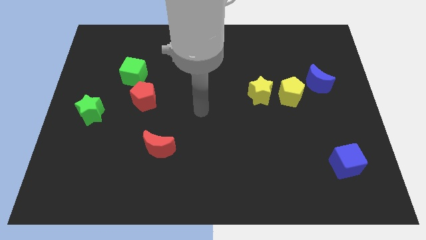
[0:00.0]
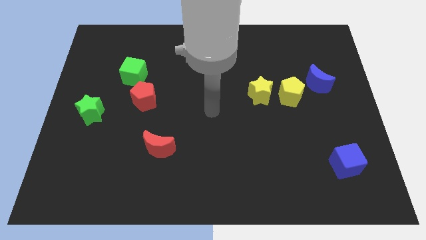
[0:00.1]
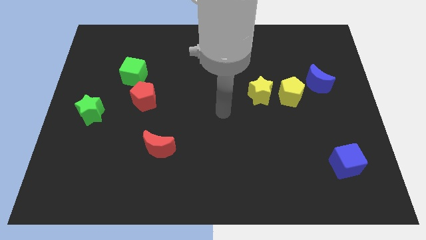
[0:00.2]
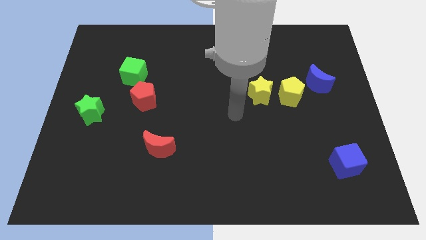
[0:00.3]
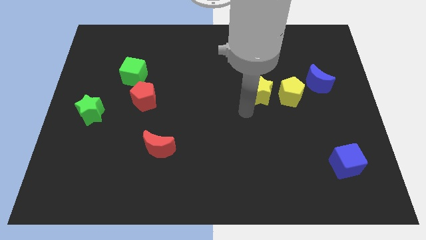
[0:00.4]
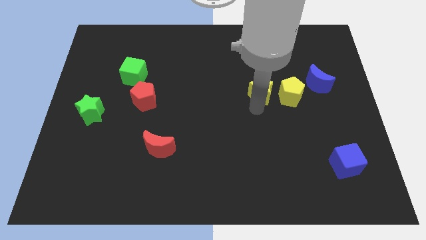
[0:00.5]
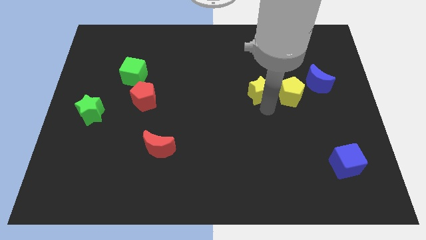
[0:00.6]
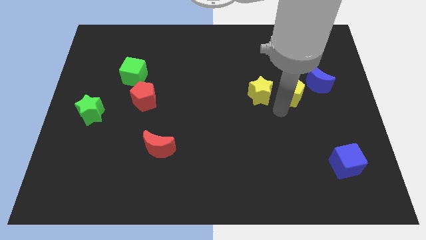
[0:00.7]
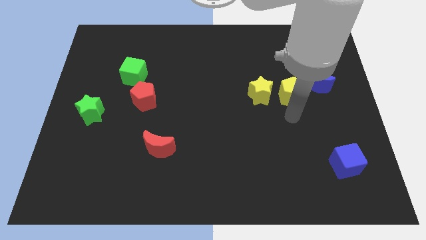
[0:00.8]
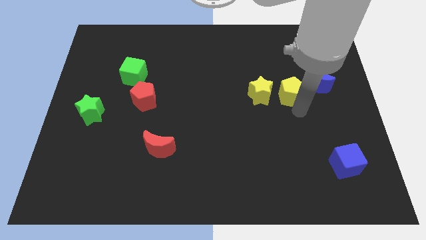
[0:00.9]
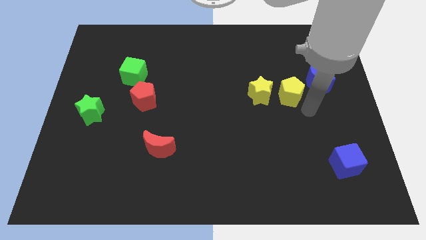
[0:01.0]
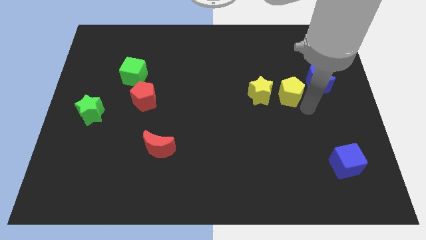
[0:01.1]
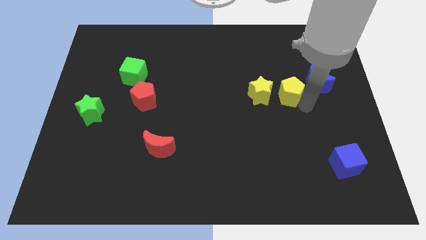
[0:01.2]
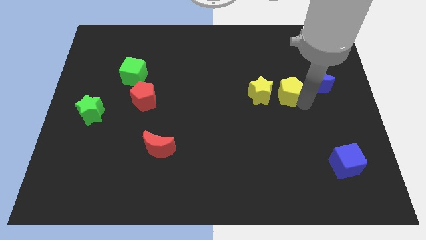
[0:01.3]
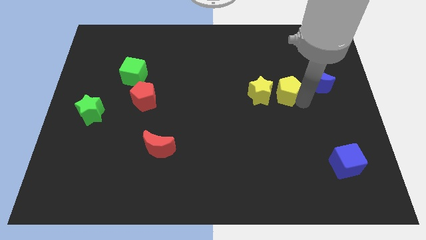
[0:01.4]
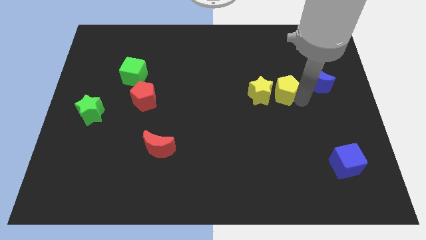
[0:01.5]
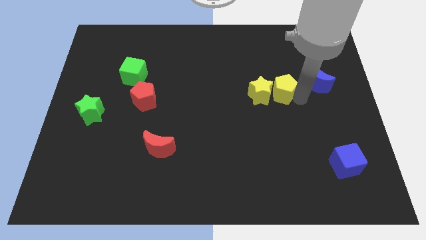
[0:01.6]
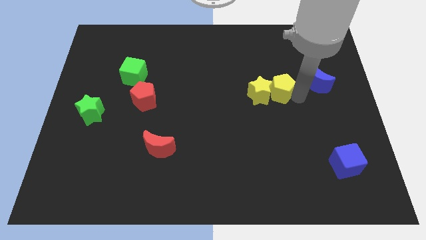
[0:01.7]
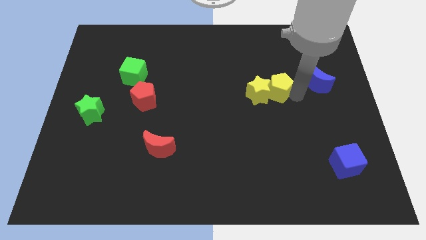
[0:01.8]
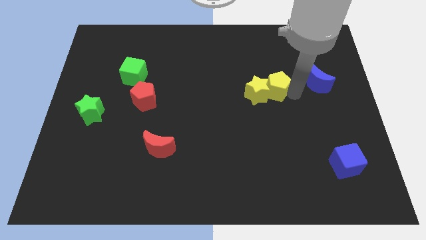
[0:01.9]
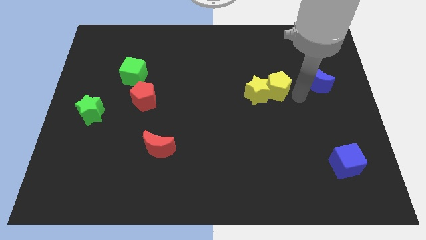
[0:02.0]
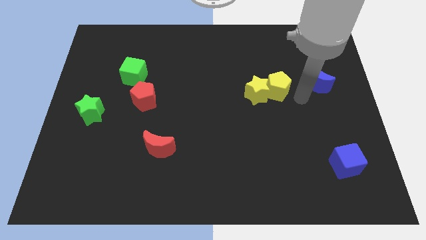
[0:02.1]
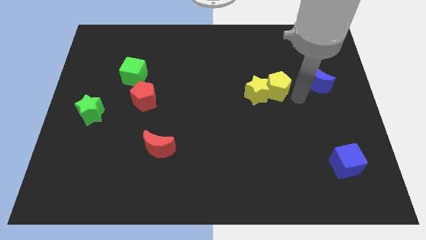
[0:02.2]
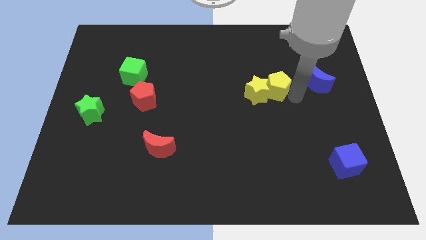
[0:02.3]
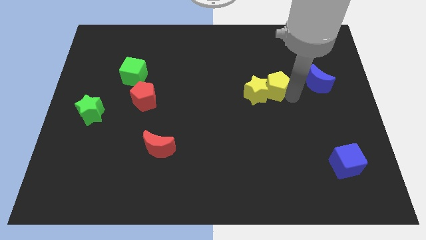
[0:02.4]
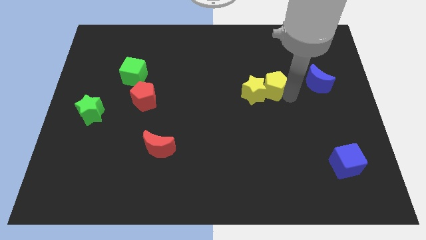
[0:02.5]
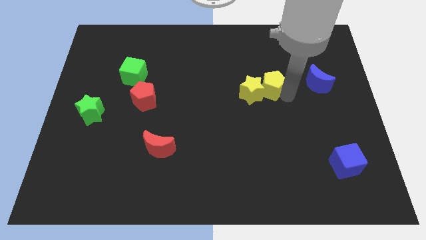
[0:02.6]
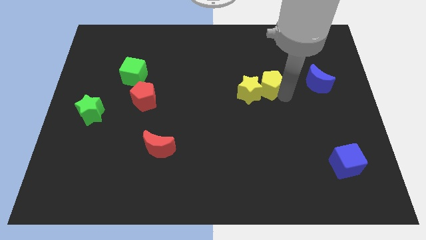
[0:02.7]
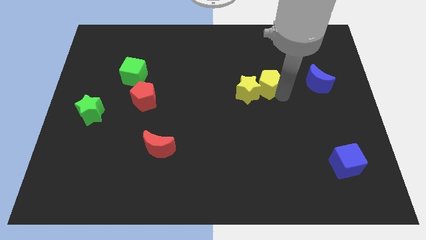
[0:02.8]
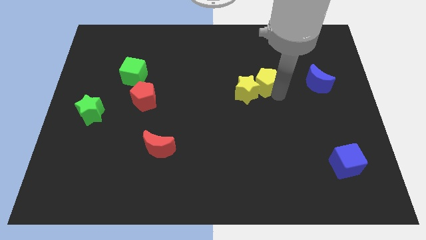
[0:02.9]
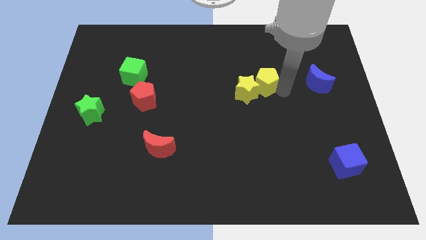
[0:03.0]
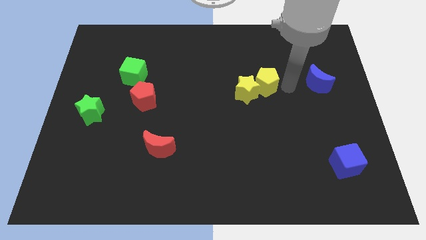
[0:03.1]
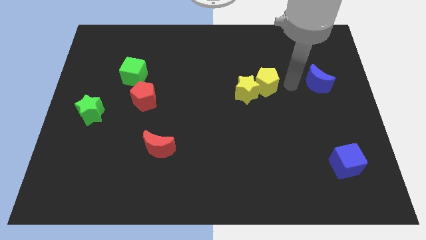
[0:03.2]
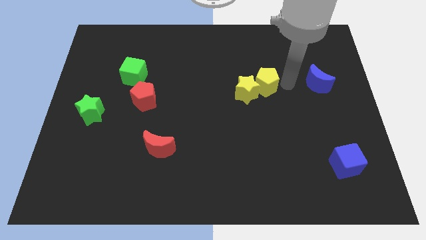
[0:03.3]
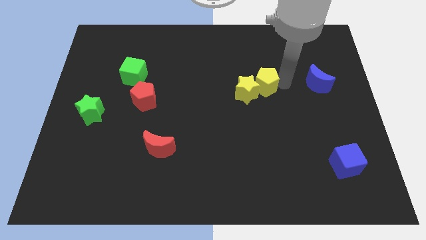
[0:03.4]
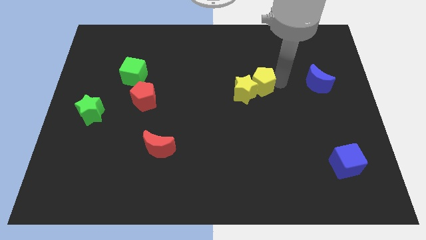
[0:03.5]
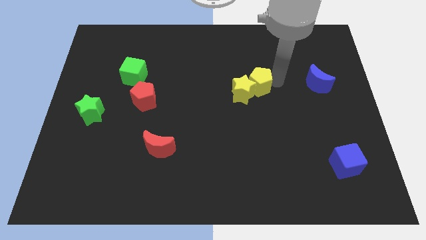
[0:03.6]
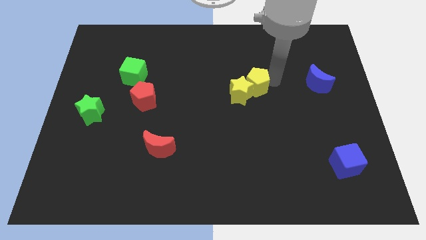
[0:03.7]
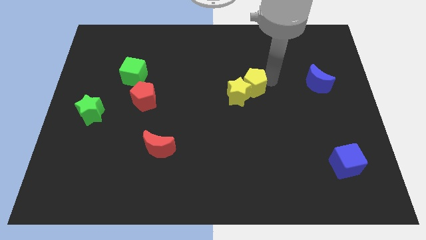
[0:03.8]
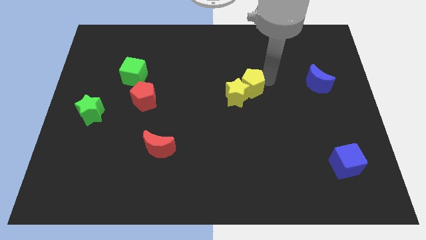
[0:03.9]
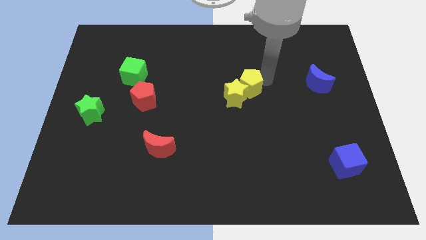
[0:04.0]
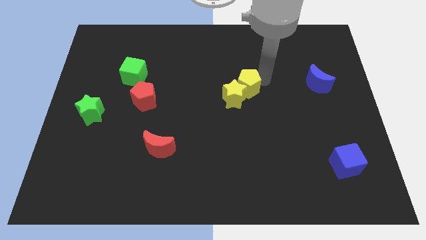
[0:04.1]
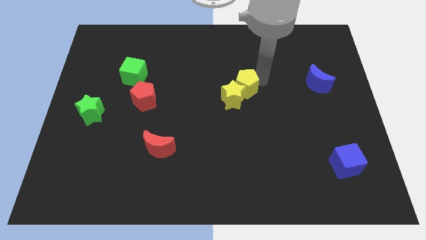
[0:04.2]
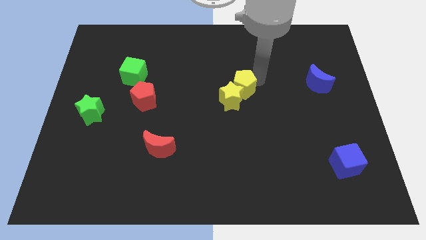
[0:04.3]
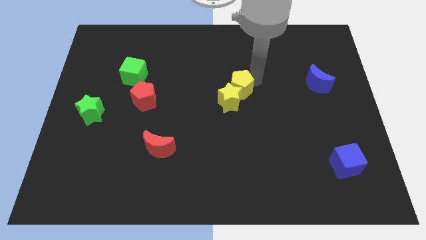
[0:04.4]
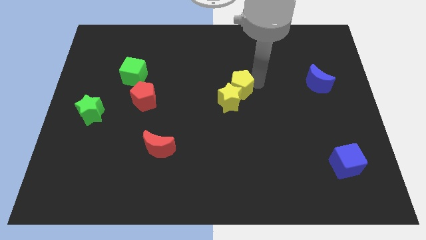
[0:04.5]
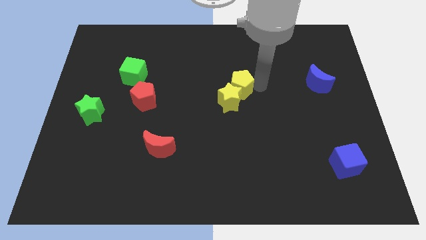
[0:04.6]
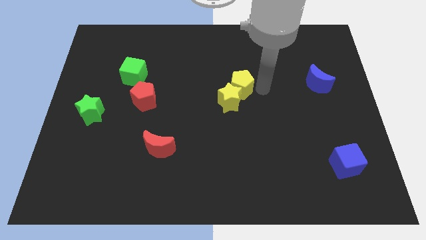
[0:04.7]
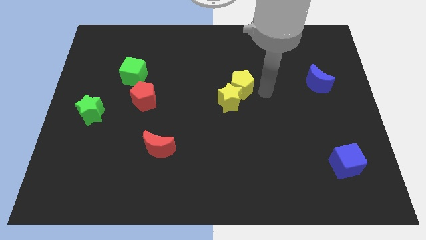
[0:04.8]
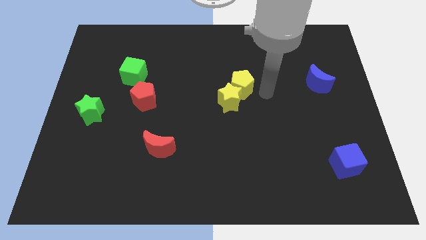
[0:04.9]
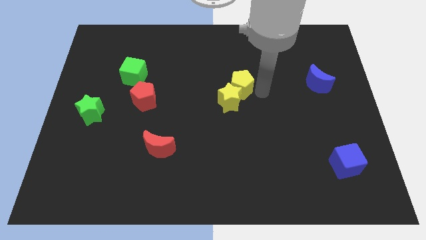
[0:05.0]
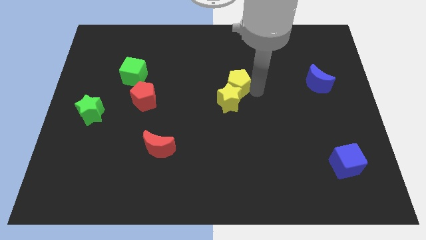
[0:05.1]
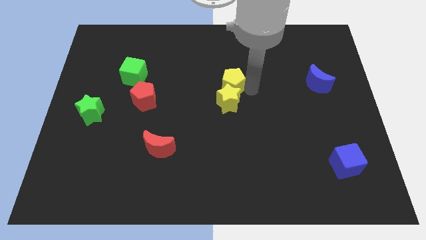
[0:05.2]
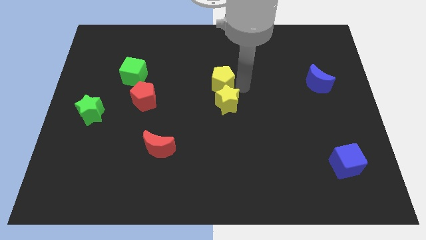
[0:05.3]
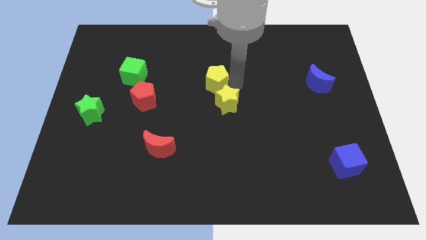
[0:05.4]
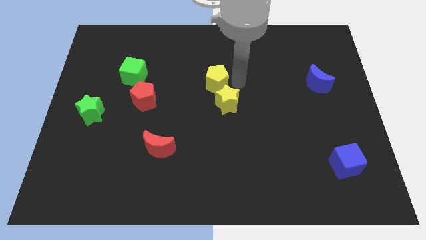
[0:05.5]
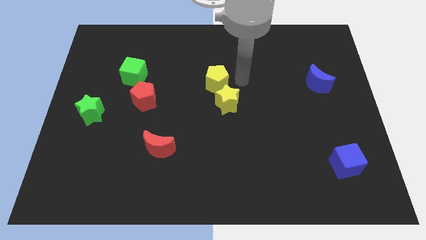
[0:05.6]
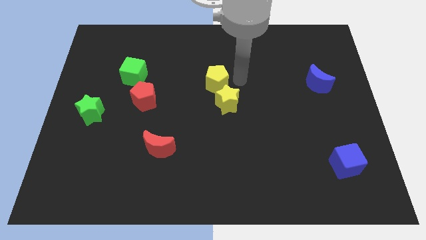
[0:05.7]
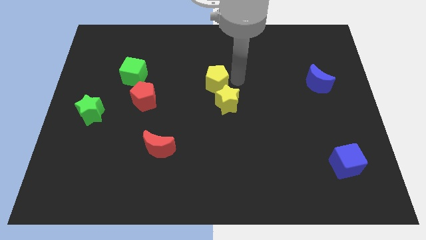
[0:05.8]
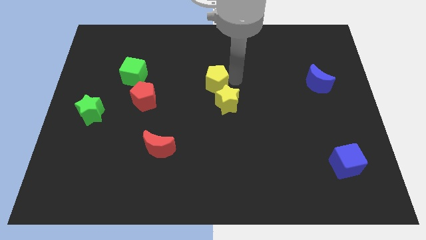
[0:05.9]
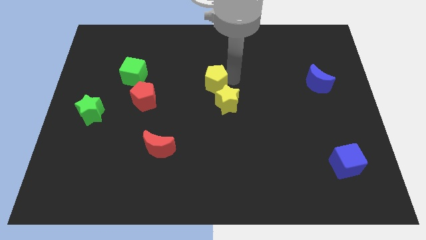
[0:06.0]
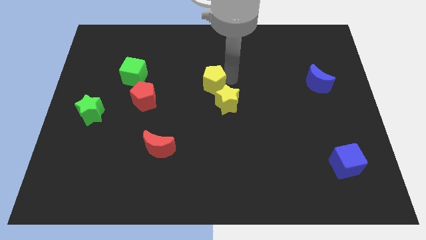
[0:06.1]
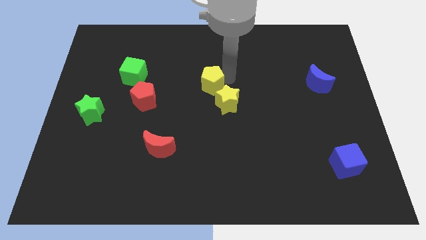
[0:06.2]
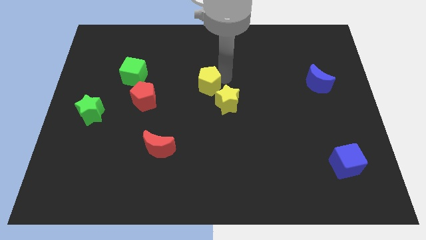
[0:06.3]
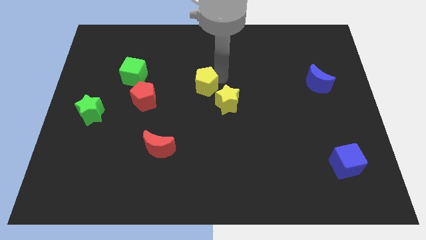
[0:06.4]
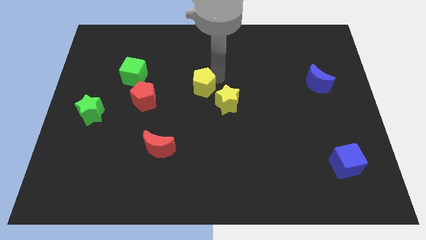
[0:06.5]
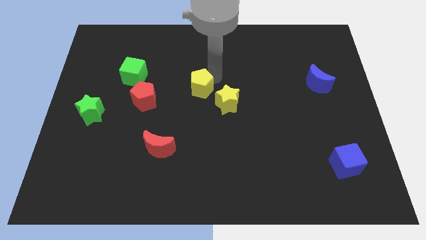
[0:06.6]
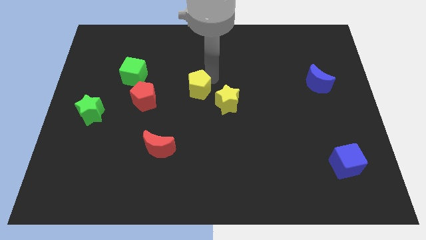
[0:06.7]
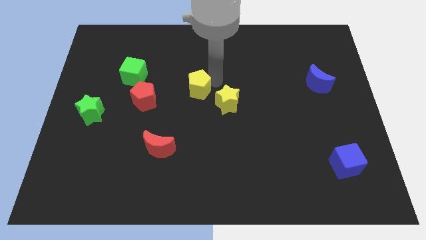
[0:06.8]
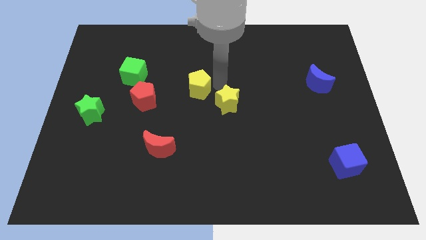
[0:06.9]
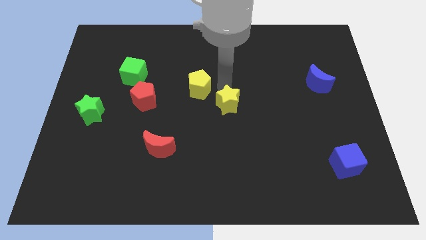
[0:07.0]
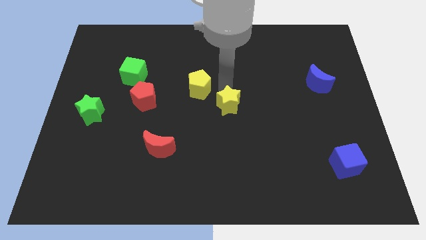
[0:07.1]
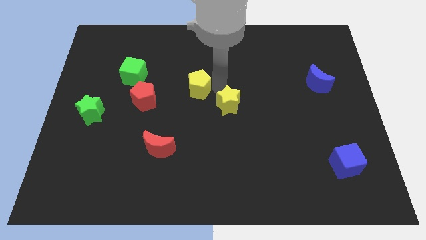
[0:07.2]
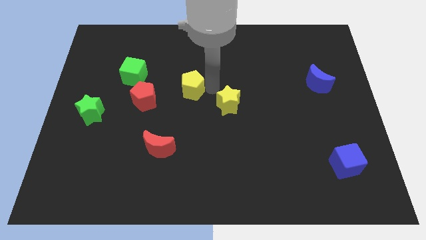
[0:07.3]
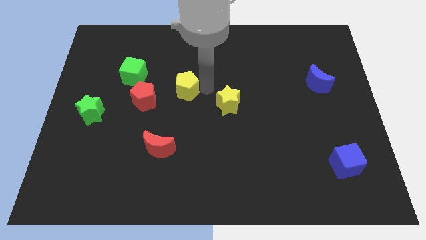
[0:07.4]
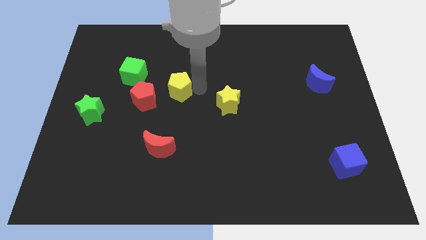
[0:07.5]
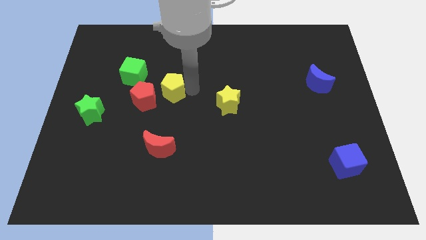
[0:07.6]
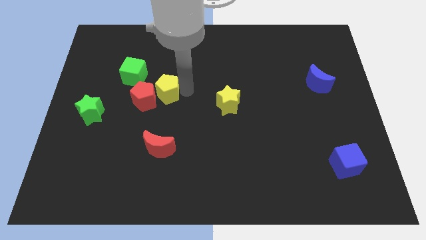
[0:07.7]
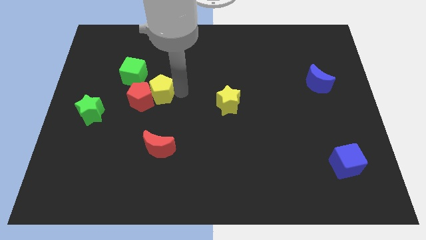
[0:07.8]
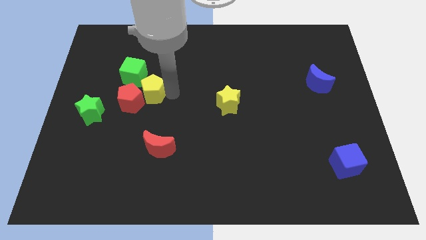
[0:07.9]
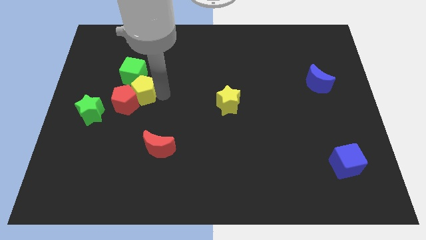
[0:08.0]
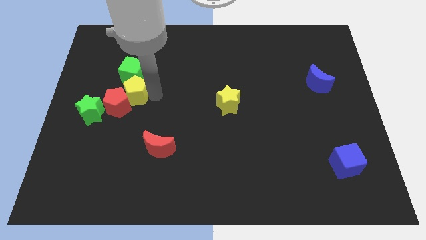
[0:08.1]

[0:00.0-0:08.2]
slide the yellow pentagon next to the green cube
